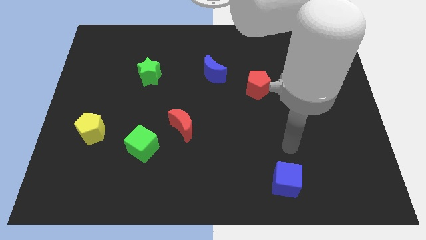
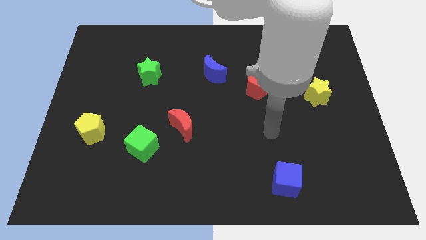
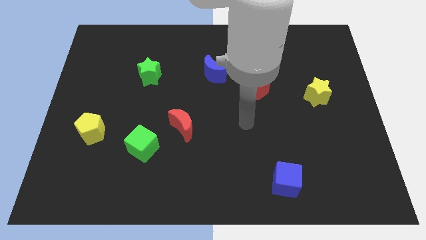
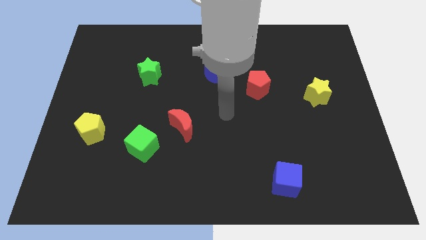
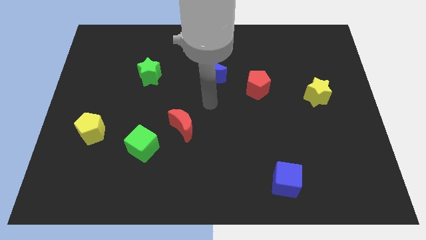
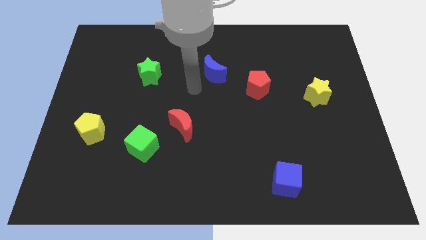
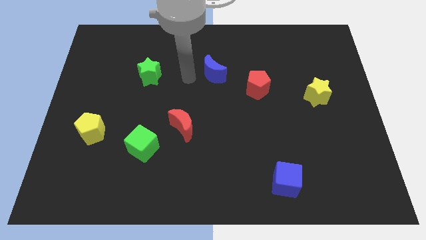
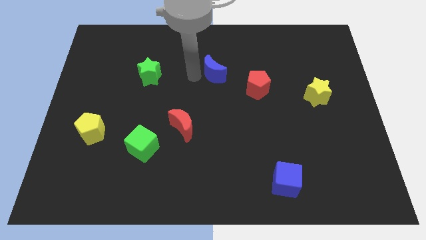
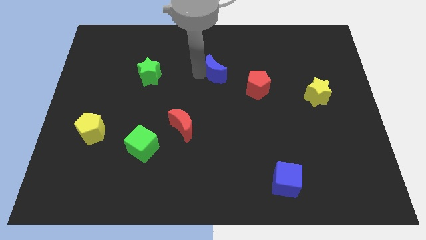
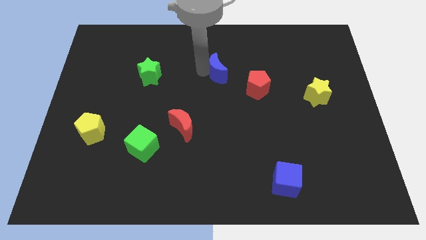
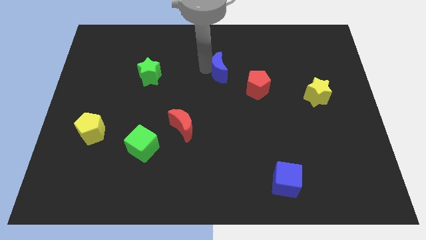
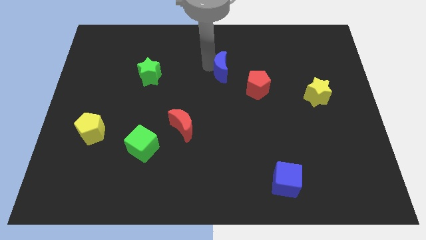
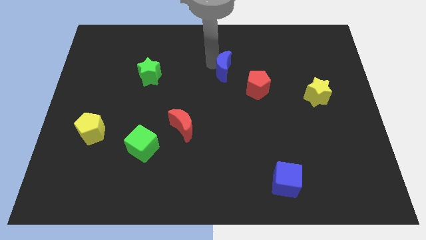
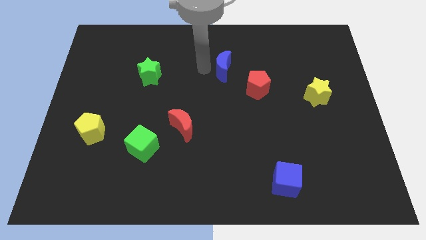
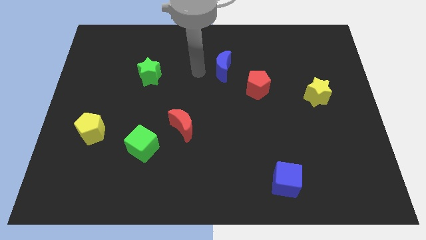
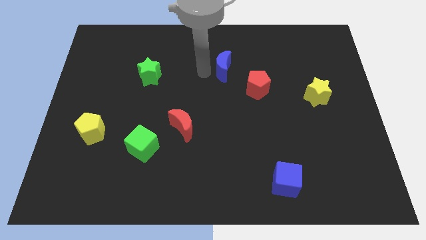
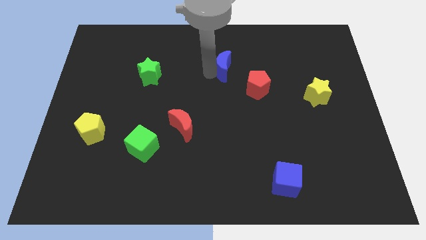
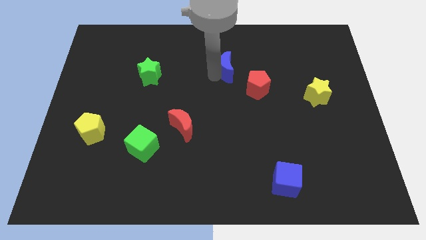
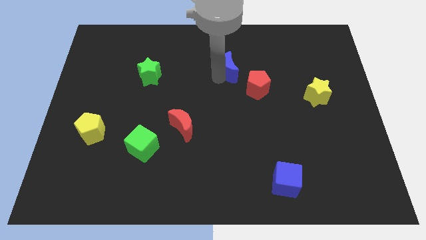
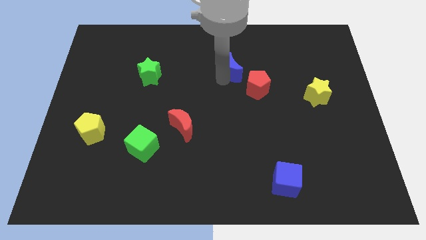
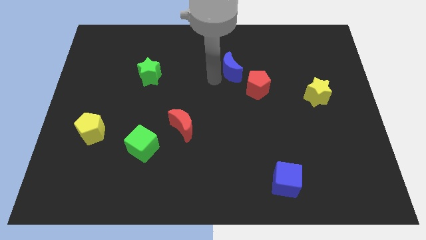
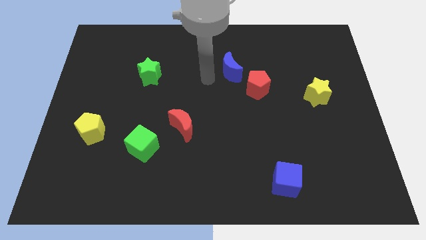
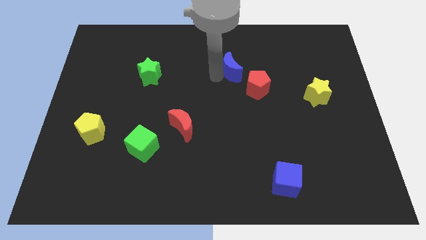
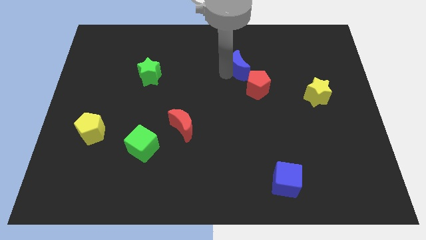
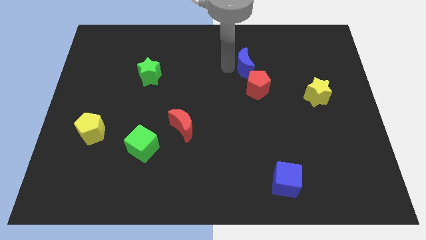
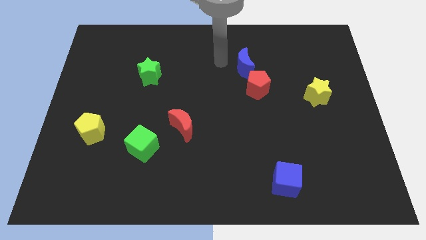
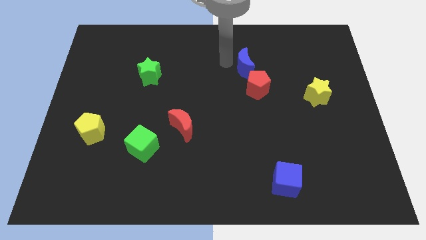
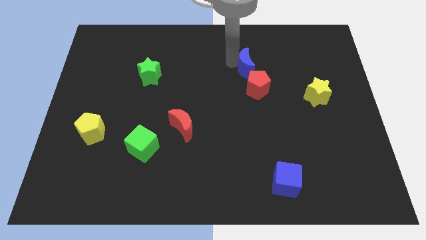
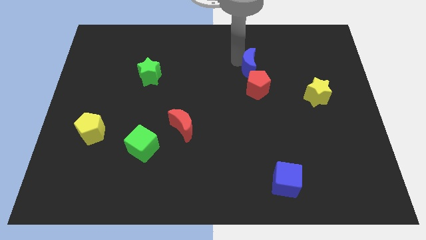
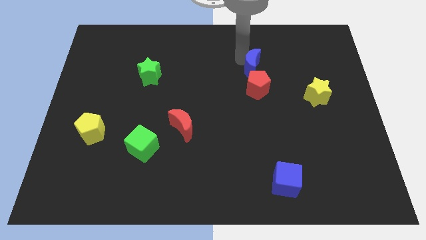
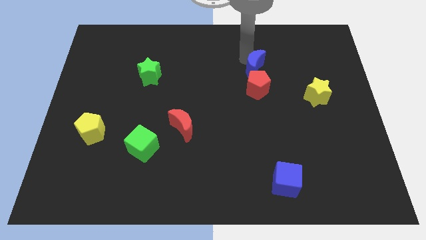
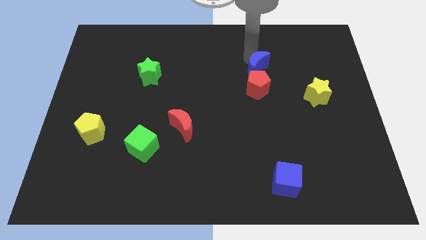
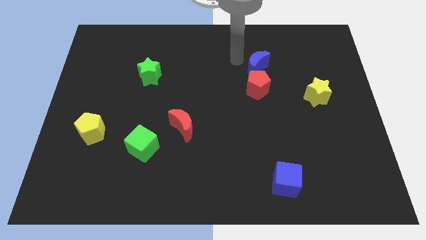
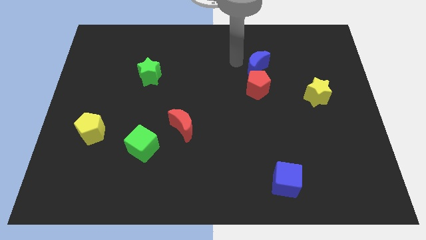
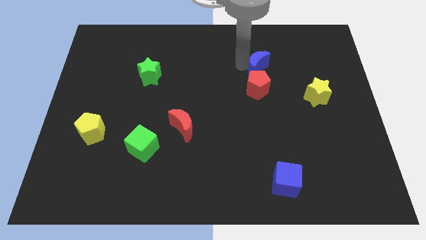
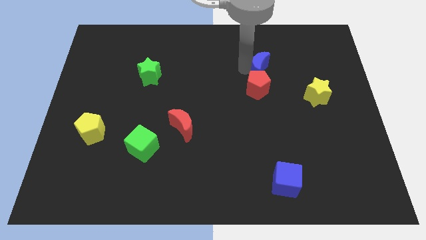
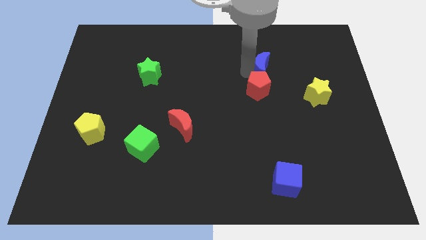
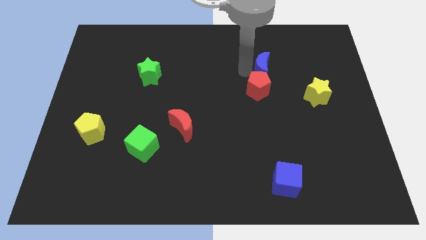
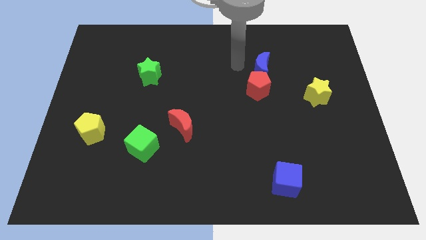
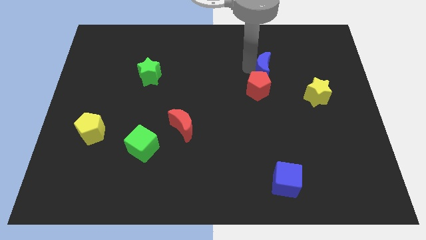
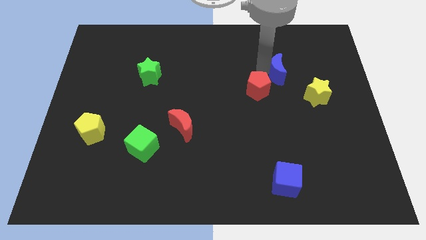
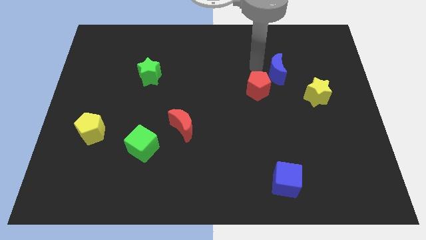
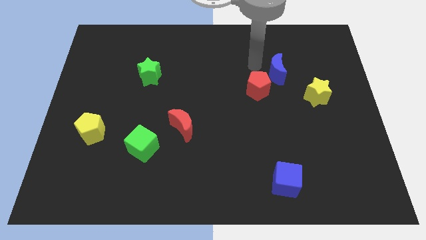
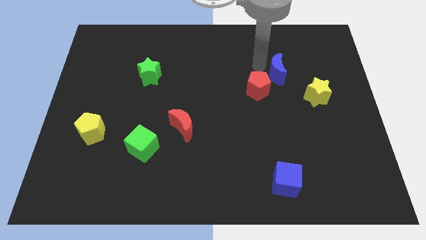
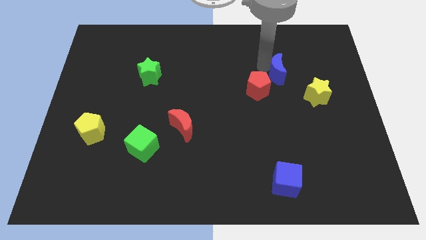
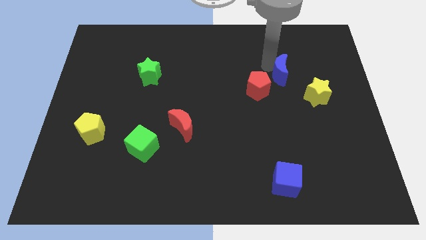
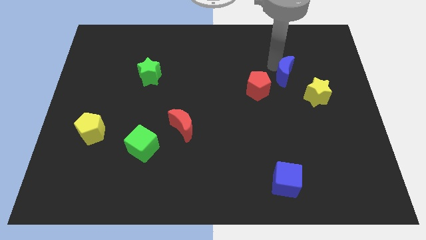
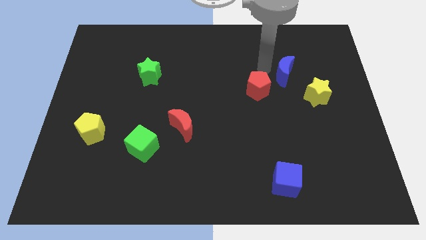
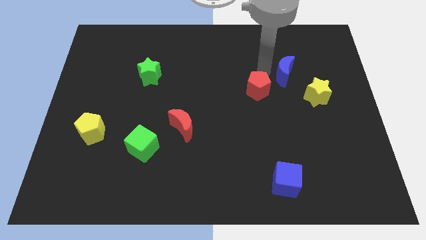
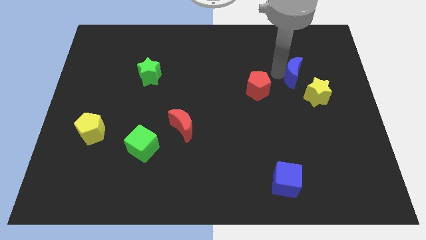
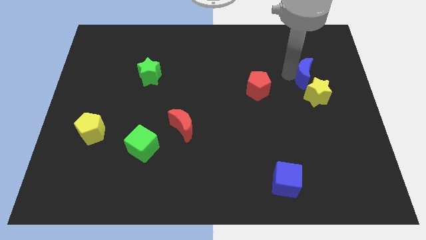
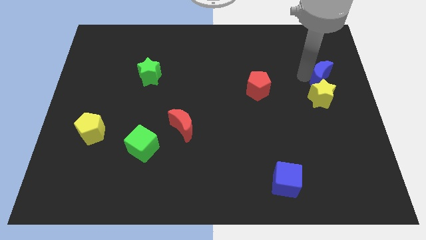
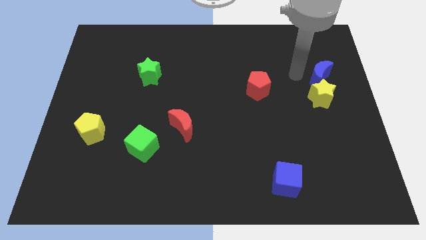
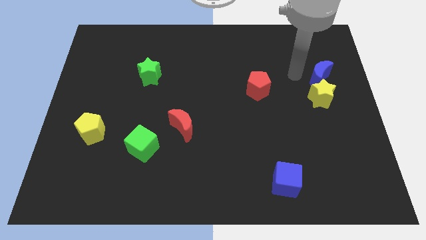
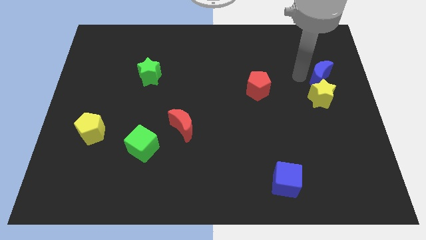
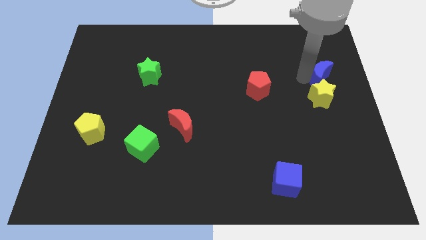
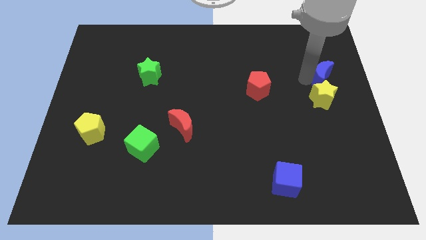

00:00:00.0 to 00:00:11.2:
push the blue moon to the right side

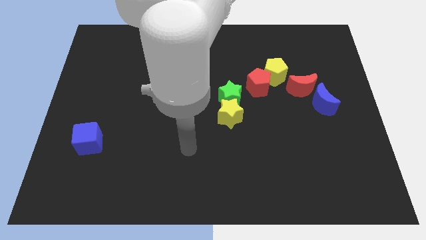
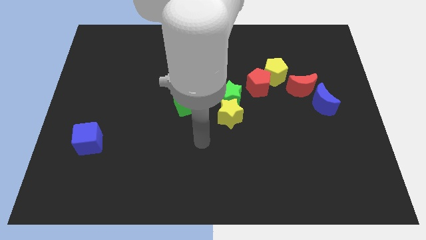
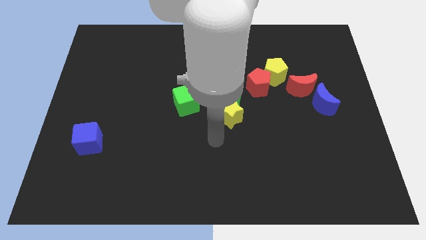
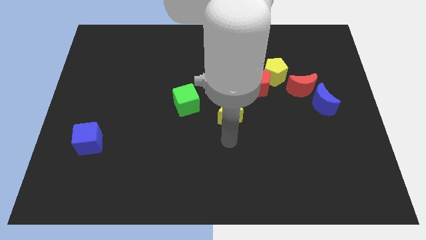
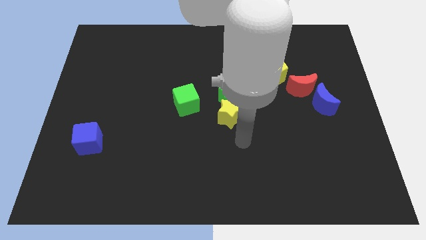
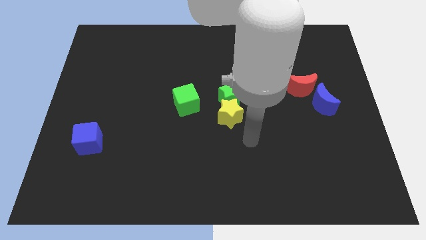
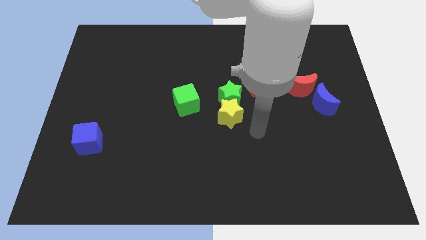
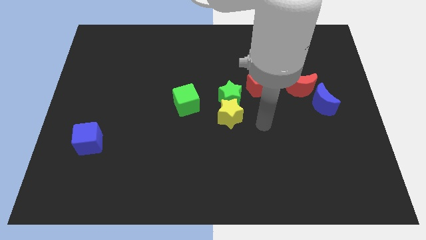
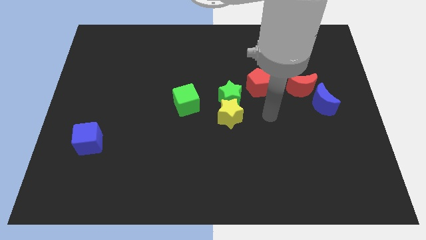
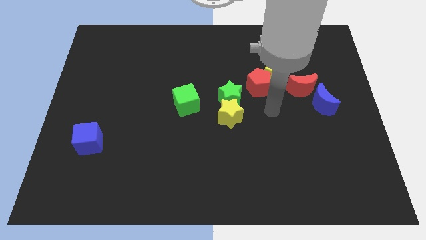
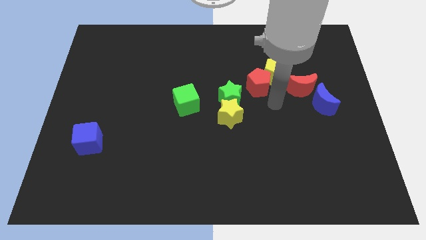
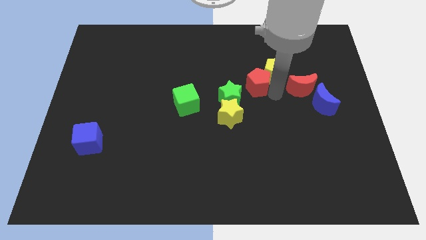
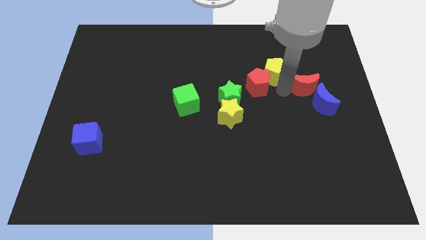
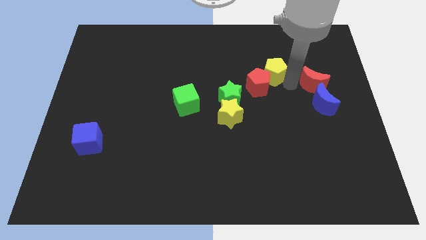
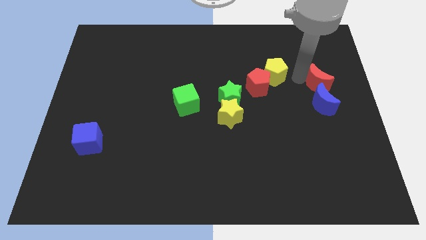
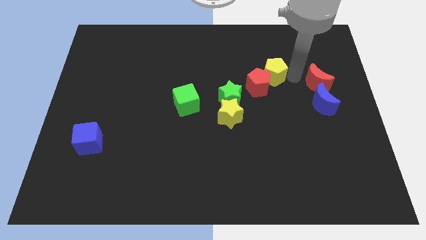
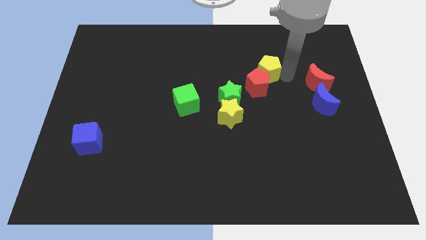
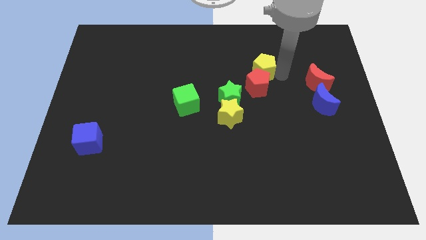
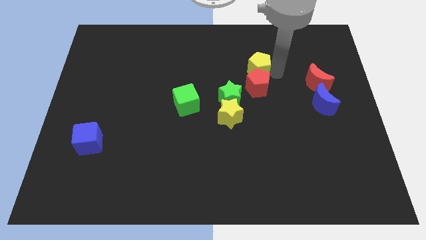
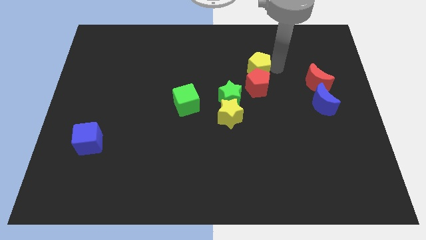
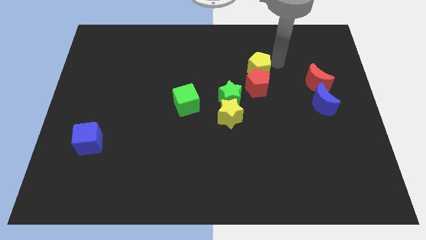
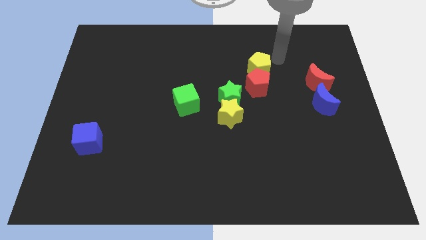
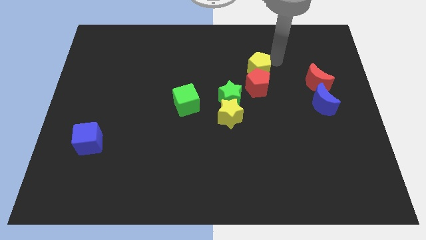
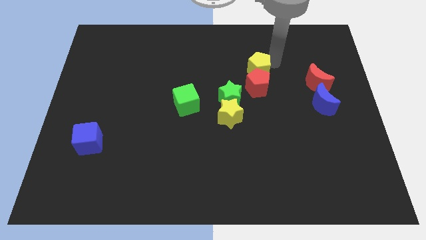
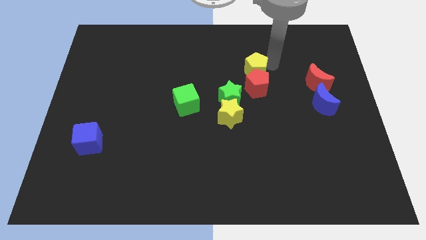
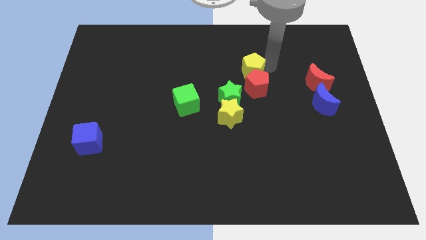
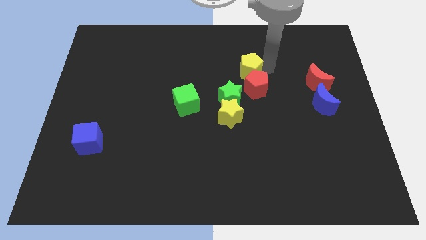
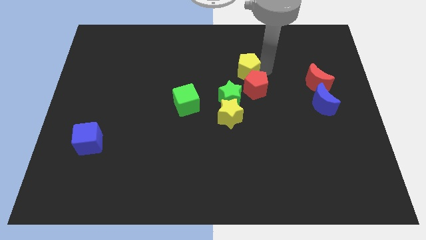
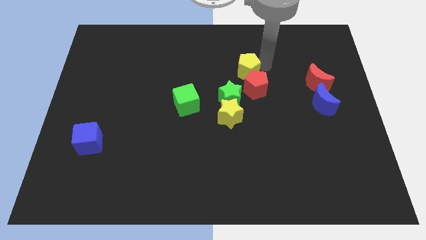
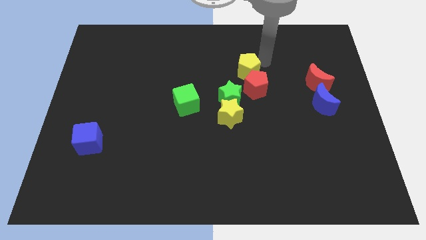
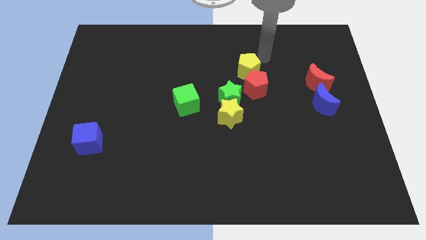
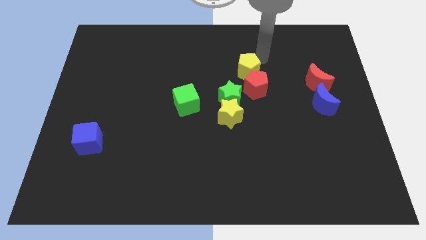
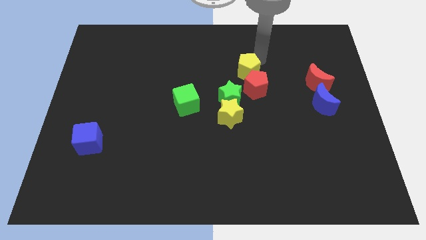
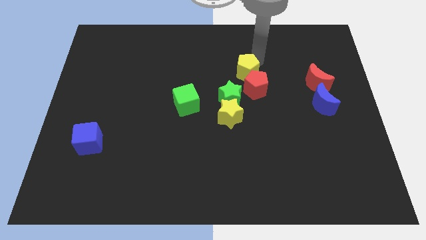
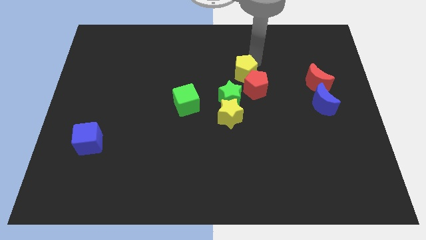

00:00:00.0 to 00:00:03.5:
put the yellow pentagon to the middle
